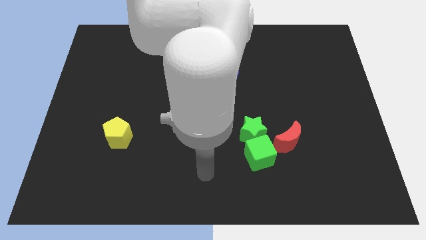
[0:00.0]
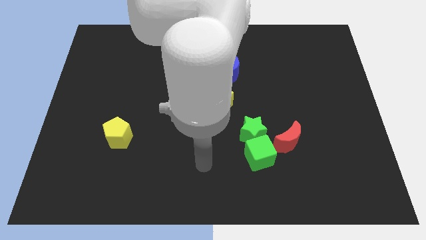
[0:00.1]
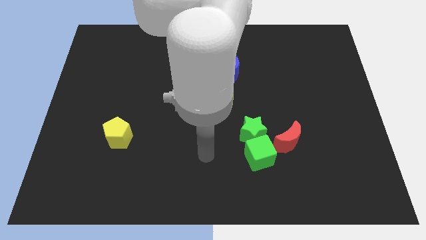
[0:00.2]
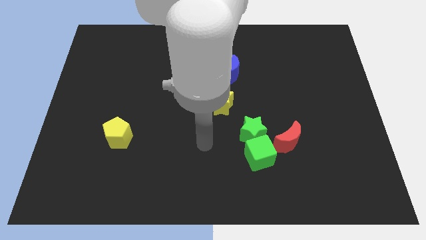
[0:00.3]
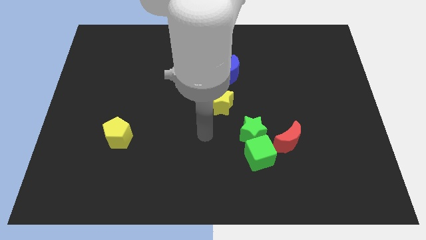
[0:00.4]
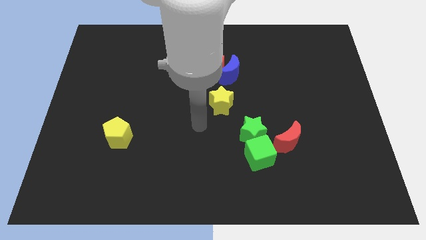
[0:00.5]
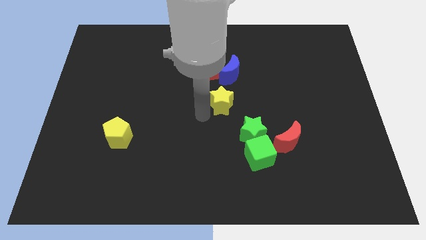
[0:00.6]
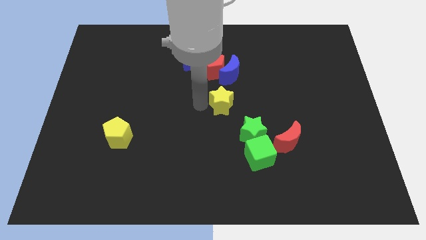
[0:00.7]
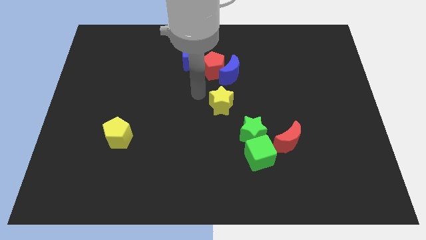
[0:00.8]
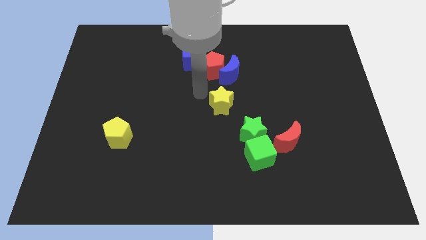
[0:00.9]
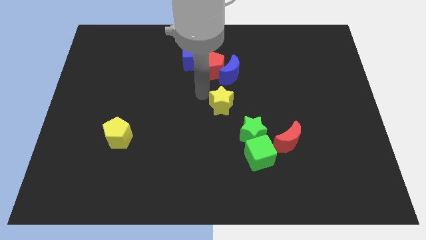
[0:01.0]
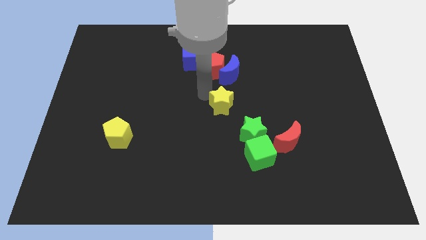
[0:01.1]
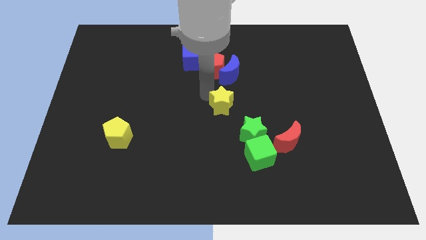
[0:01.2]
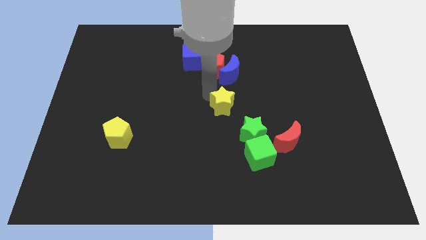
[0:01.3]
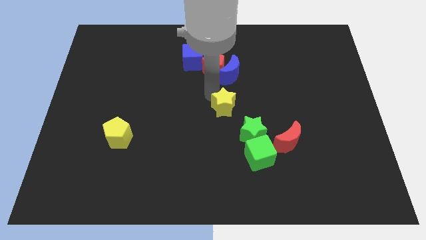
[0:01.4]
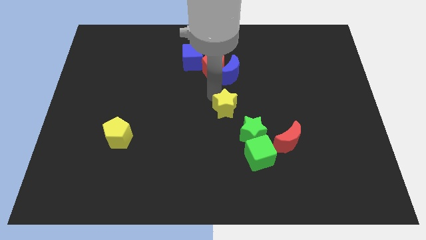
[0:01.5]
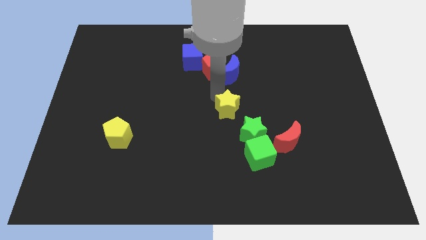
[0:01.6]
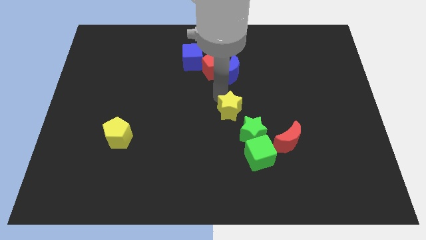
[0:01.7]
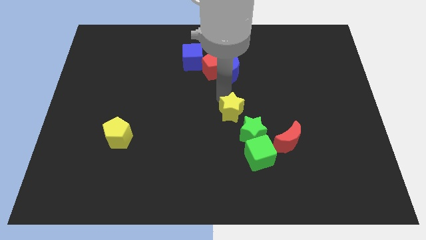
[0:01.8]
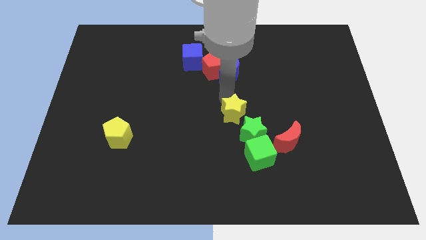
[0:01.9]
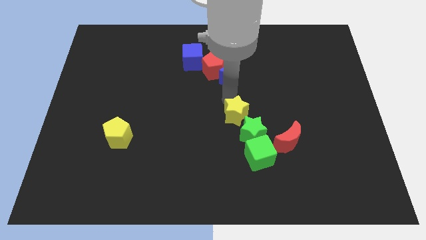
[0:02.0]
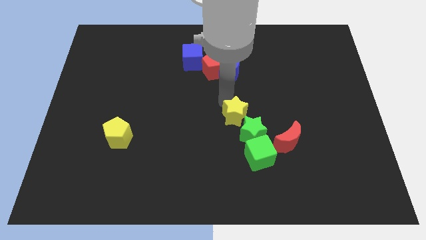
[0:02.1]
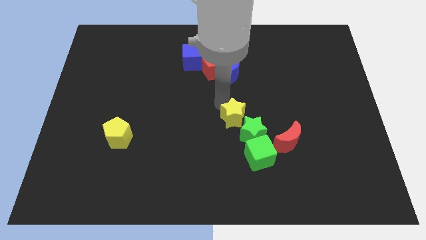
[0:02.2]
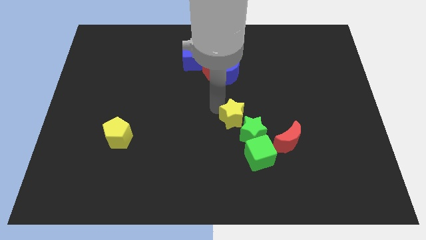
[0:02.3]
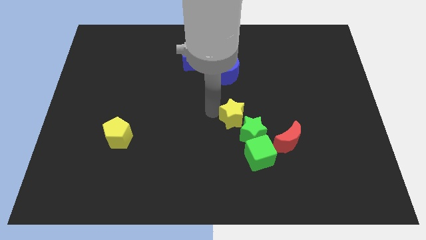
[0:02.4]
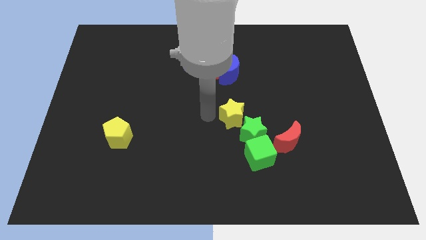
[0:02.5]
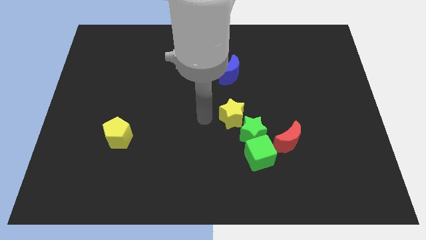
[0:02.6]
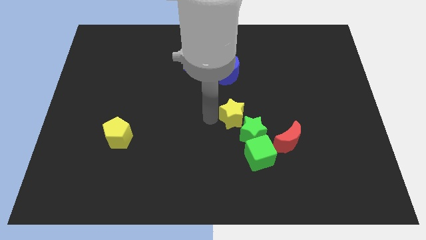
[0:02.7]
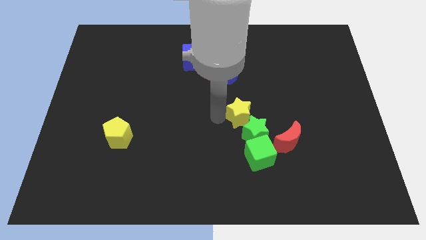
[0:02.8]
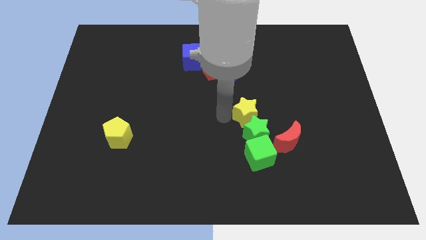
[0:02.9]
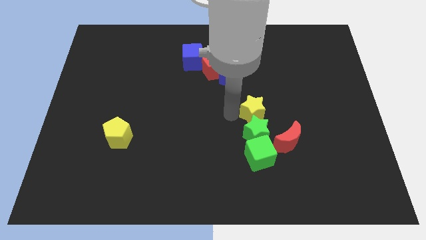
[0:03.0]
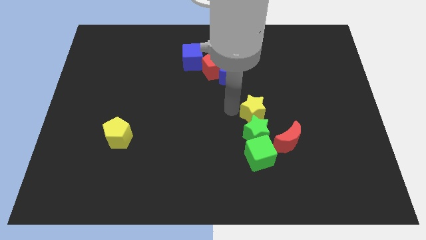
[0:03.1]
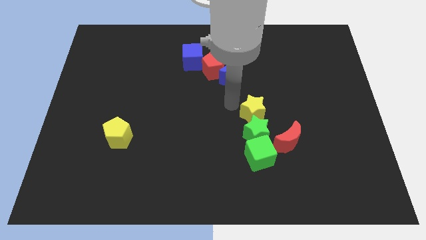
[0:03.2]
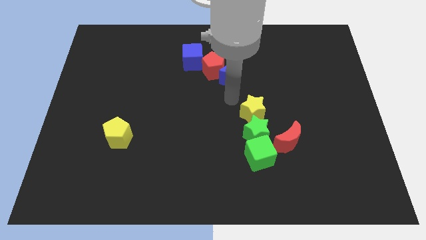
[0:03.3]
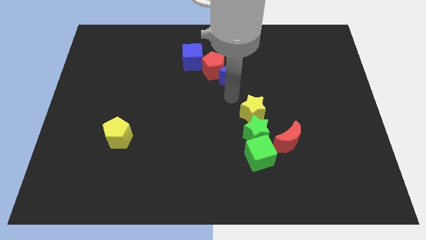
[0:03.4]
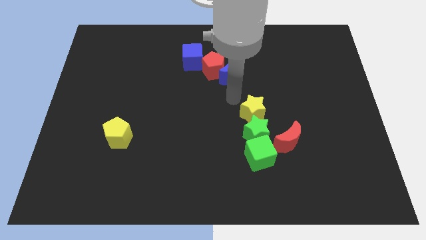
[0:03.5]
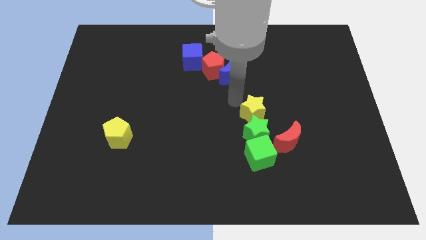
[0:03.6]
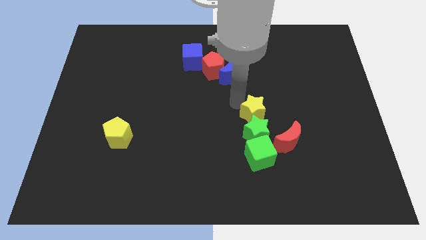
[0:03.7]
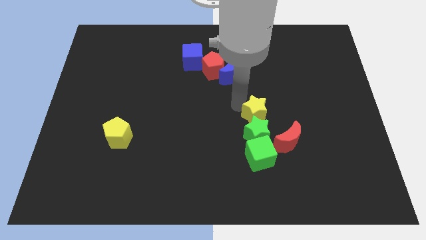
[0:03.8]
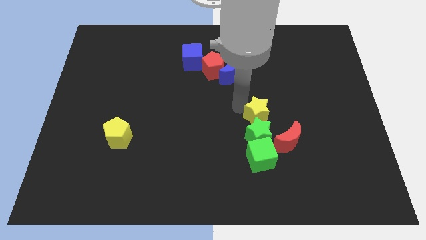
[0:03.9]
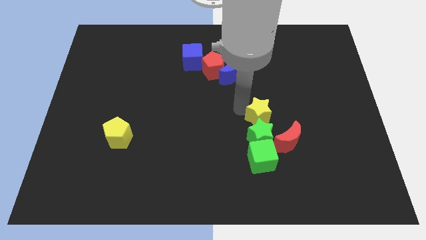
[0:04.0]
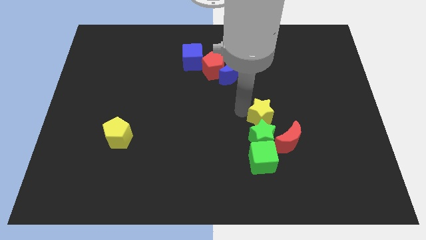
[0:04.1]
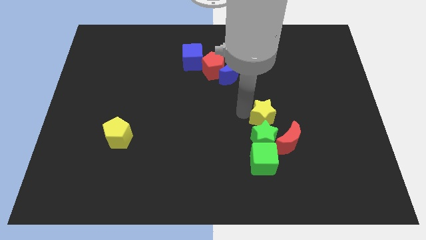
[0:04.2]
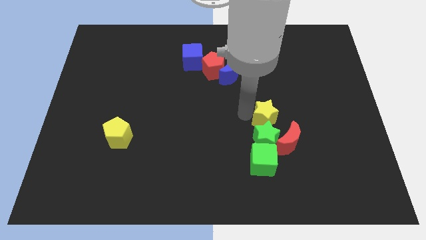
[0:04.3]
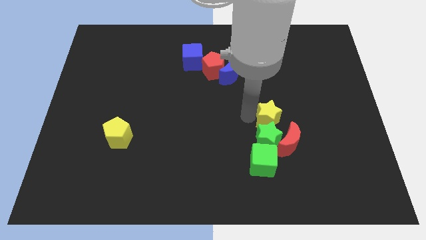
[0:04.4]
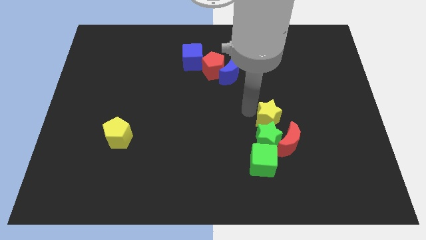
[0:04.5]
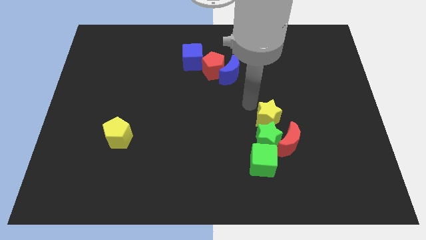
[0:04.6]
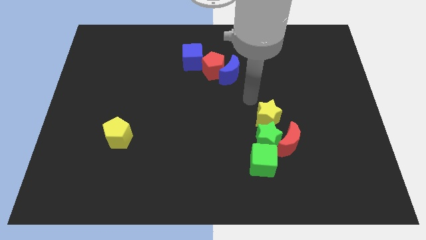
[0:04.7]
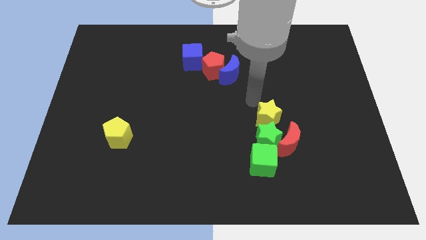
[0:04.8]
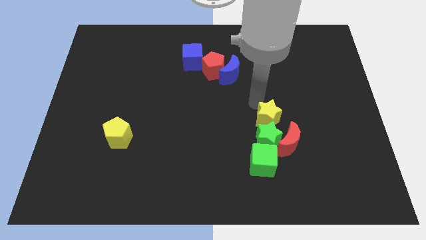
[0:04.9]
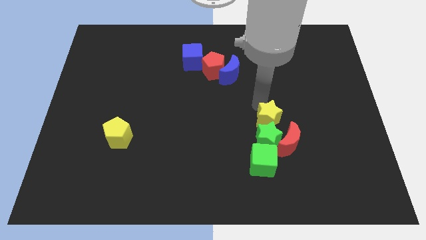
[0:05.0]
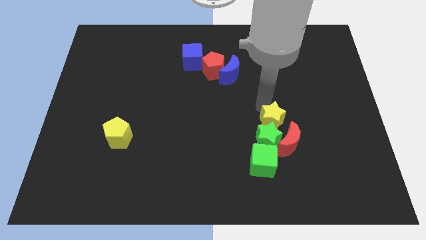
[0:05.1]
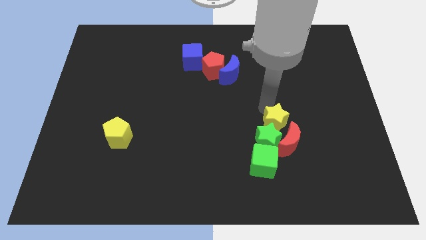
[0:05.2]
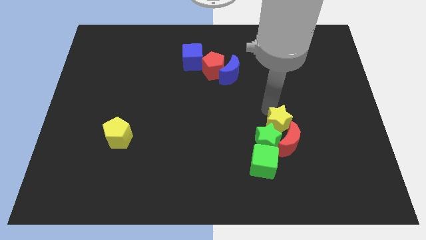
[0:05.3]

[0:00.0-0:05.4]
put the yellow star next to the red moon

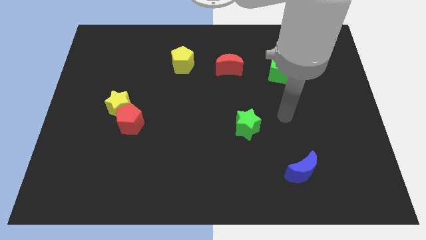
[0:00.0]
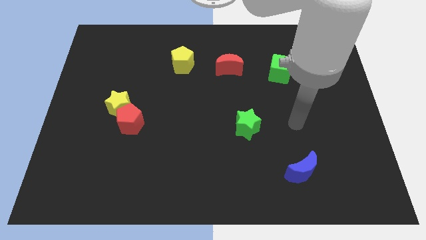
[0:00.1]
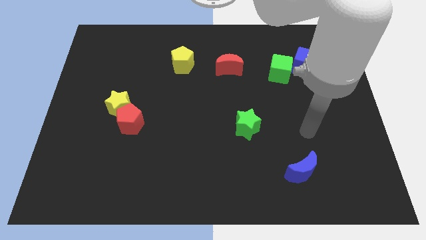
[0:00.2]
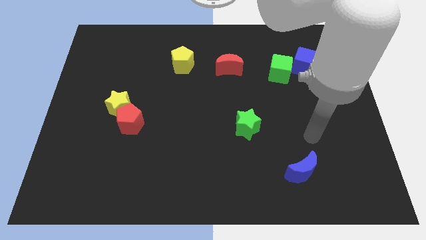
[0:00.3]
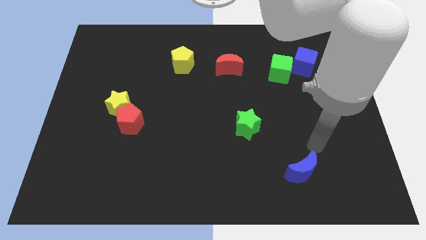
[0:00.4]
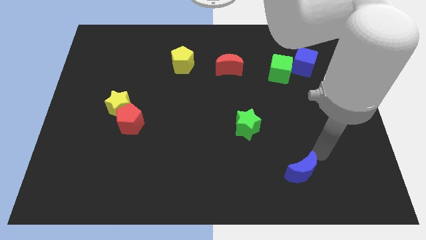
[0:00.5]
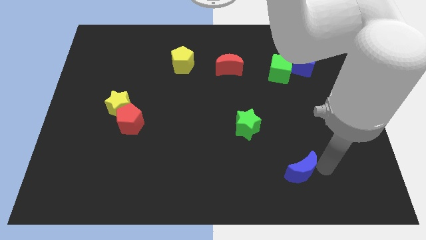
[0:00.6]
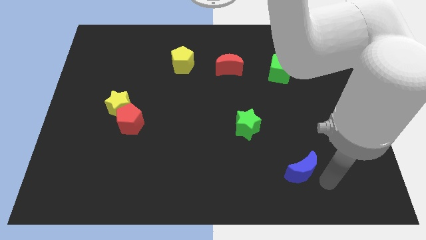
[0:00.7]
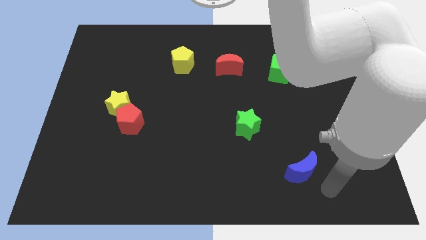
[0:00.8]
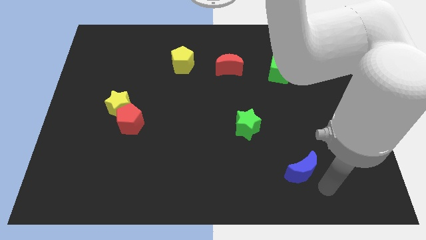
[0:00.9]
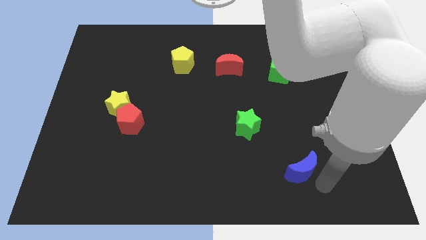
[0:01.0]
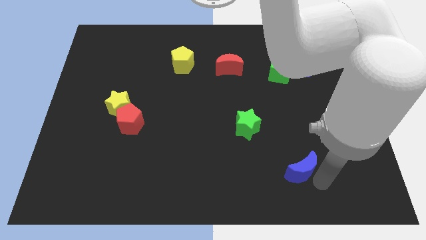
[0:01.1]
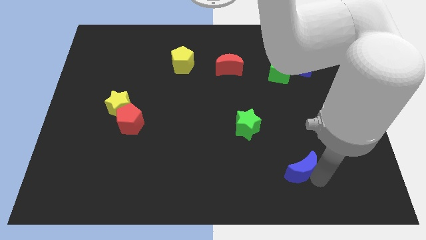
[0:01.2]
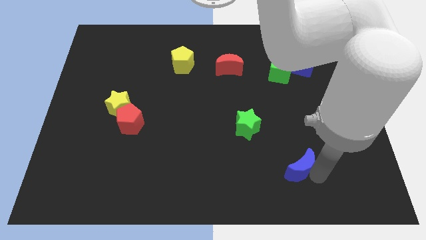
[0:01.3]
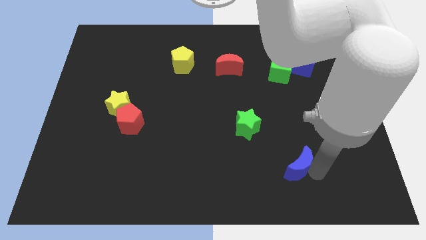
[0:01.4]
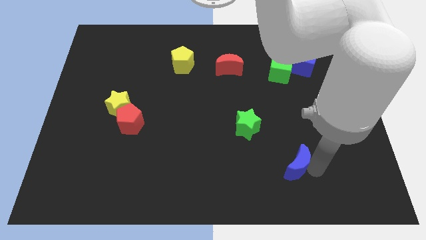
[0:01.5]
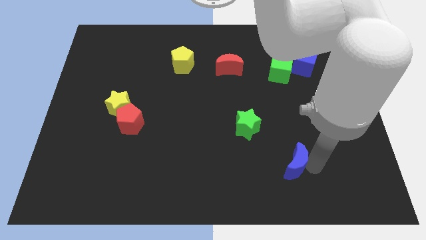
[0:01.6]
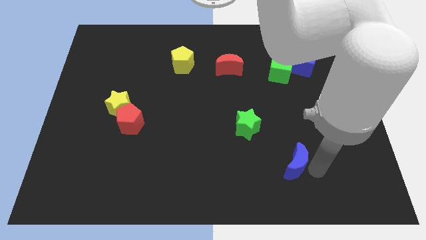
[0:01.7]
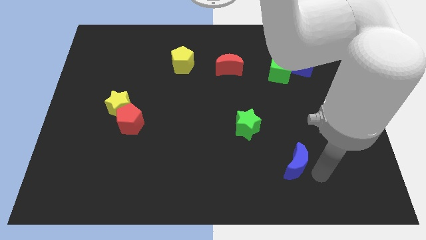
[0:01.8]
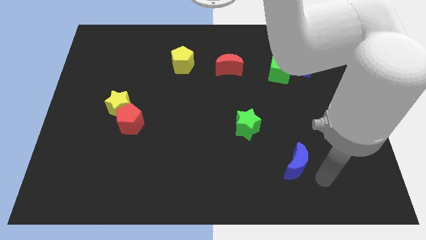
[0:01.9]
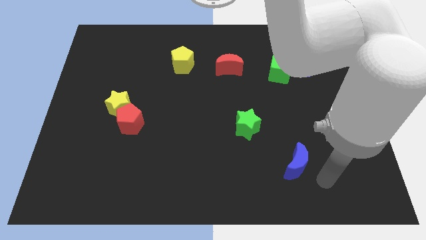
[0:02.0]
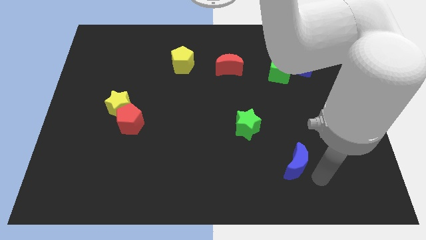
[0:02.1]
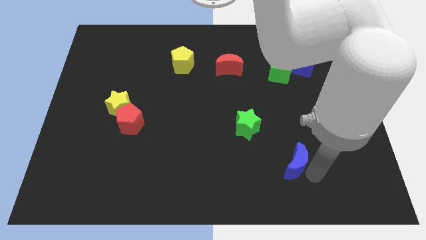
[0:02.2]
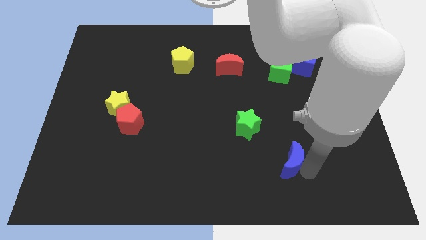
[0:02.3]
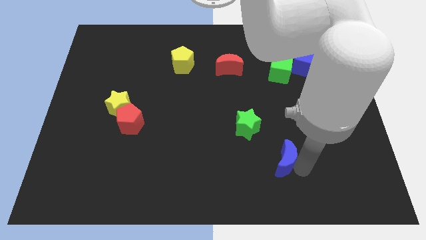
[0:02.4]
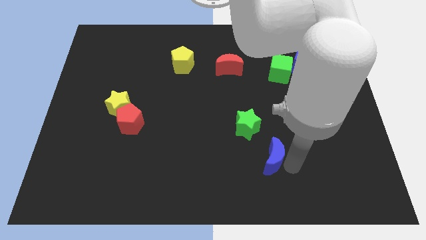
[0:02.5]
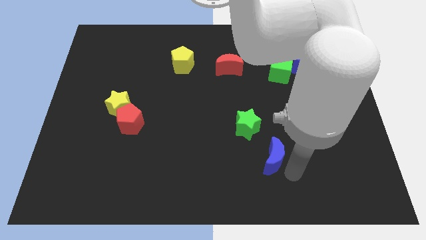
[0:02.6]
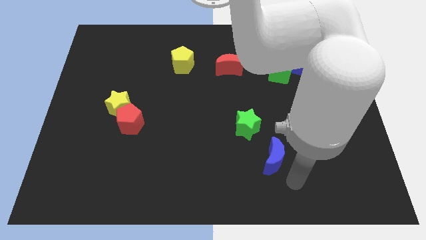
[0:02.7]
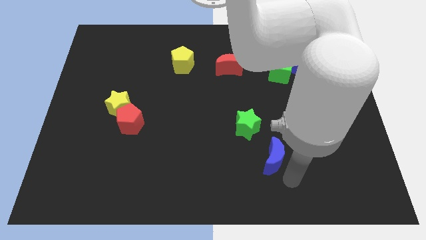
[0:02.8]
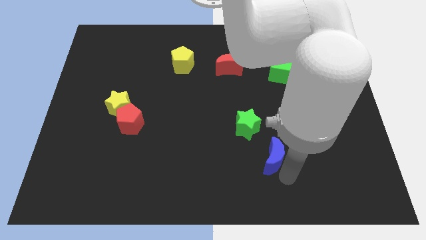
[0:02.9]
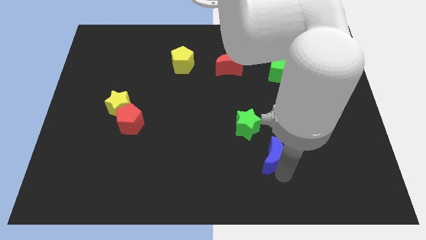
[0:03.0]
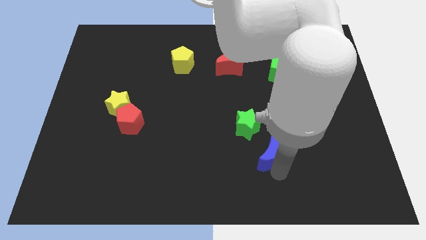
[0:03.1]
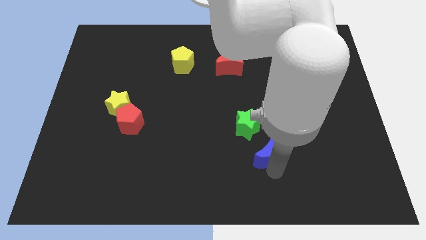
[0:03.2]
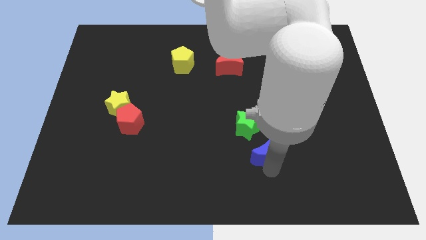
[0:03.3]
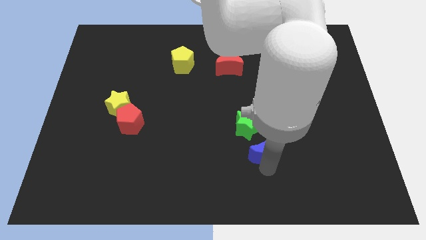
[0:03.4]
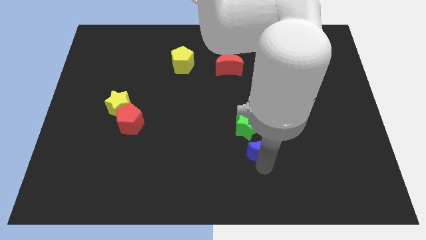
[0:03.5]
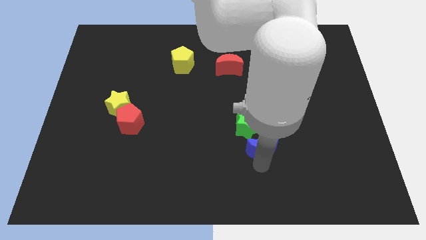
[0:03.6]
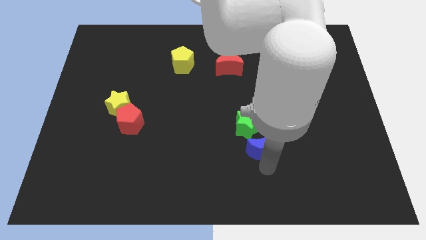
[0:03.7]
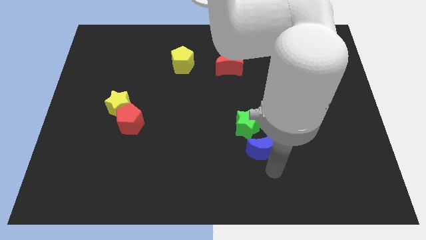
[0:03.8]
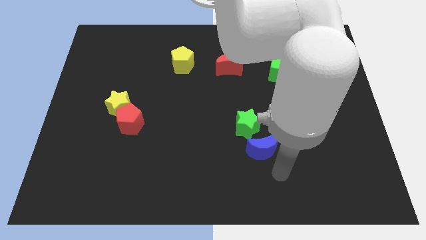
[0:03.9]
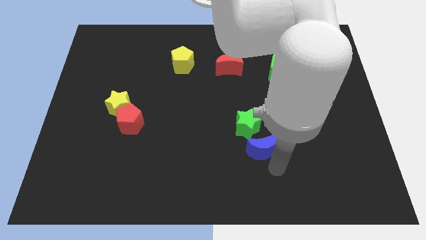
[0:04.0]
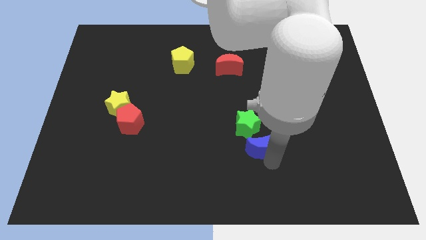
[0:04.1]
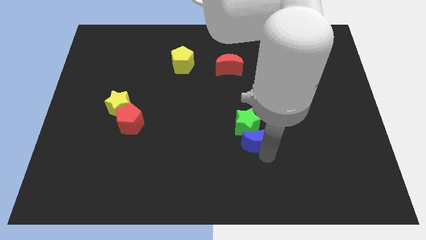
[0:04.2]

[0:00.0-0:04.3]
put the blue moon close to the green star
